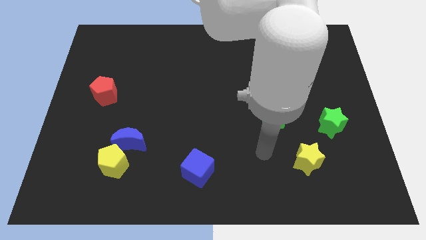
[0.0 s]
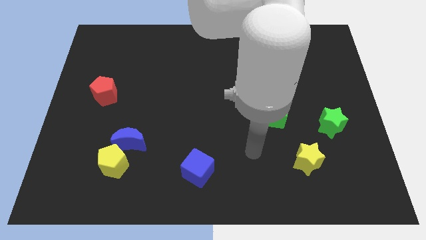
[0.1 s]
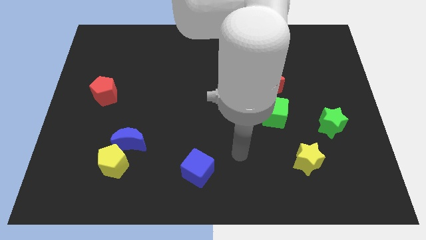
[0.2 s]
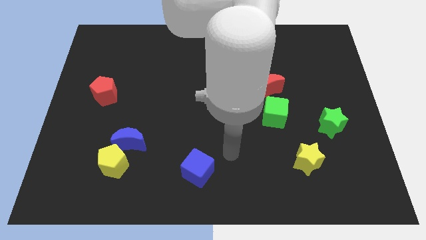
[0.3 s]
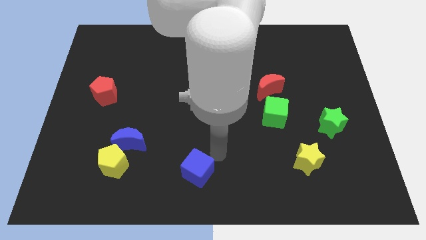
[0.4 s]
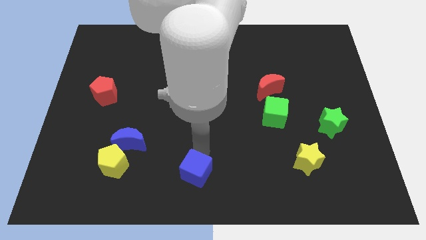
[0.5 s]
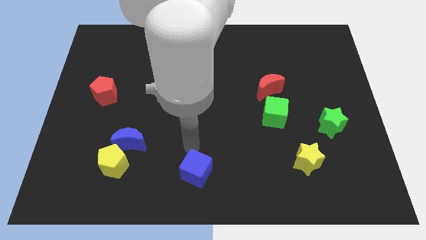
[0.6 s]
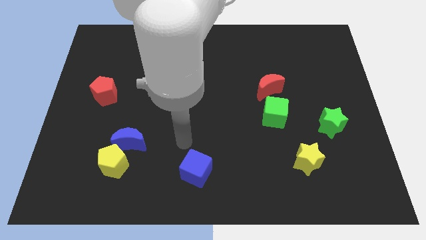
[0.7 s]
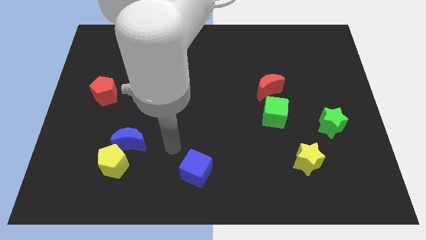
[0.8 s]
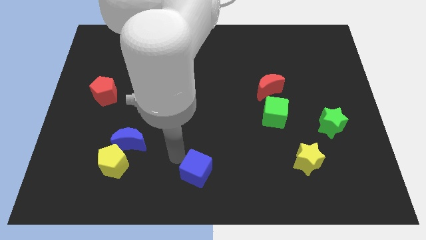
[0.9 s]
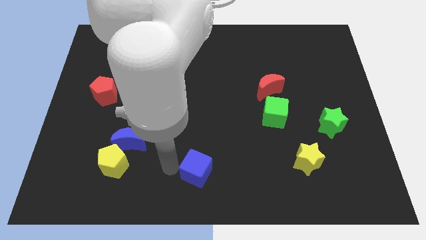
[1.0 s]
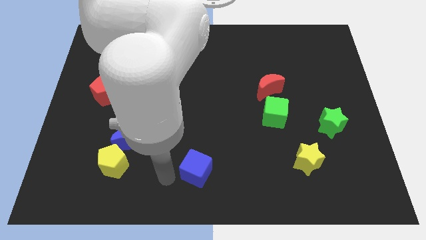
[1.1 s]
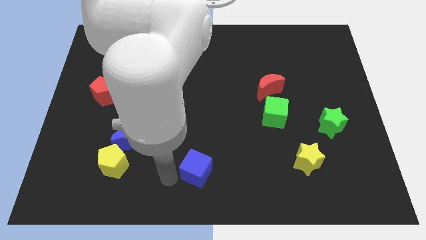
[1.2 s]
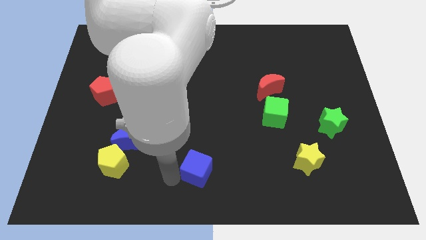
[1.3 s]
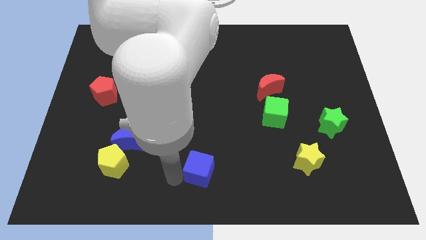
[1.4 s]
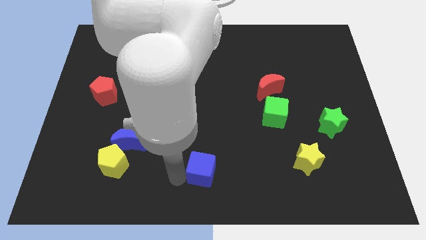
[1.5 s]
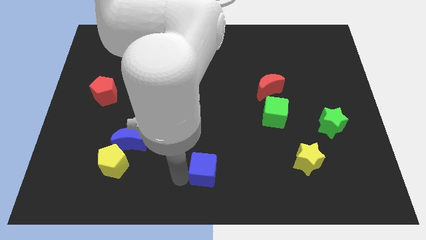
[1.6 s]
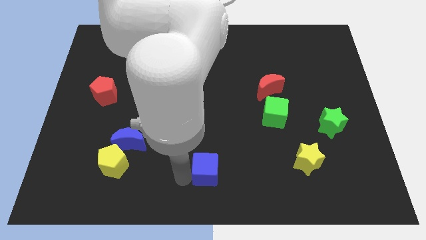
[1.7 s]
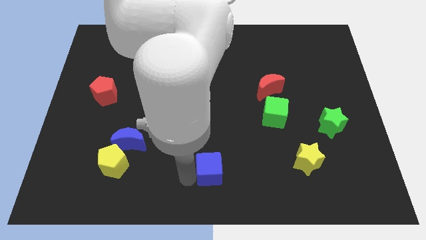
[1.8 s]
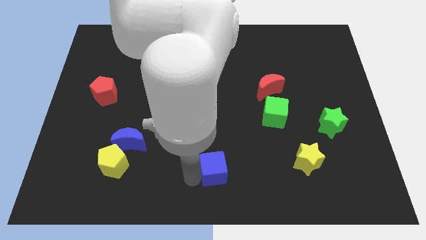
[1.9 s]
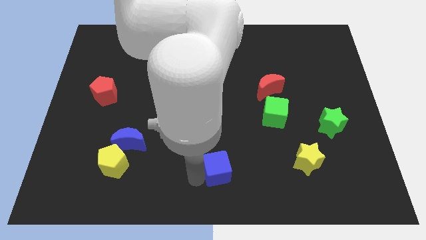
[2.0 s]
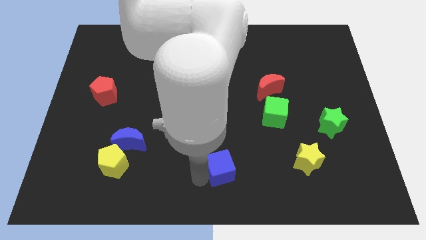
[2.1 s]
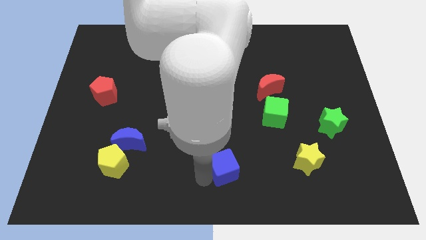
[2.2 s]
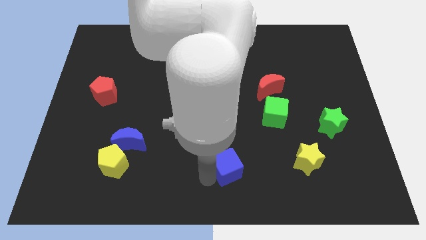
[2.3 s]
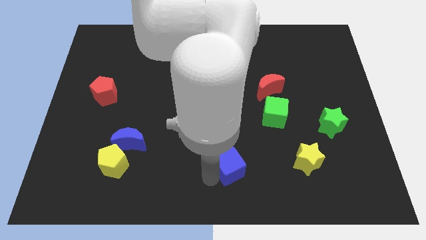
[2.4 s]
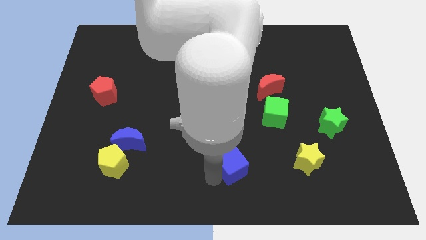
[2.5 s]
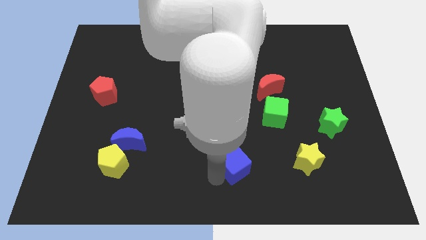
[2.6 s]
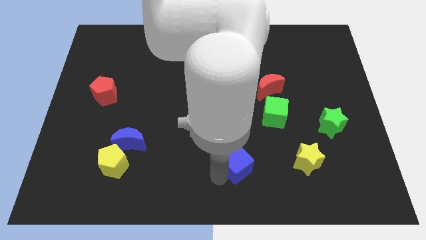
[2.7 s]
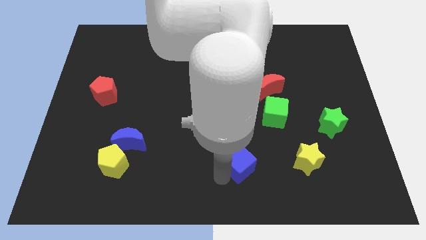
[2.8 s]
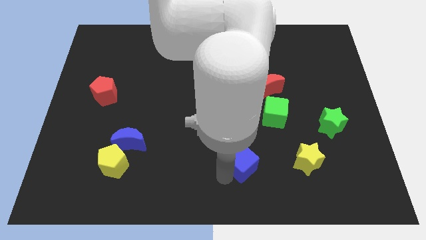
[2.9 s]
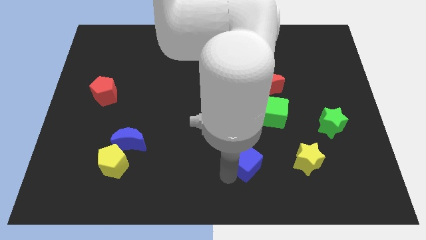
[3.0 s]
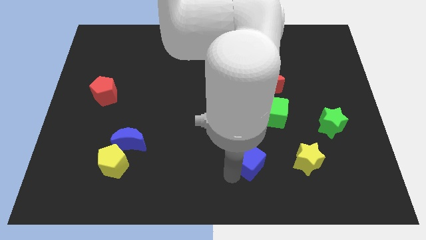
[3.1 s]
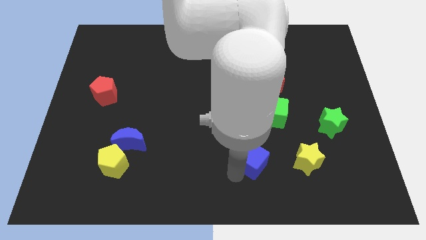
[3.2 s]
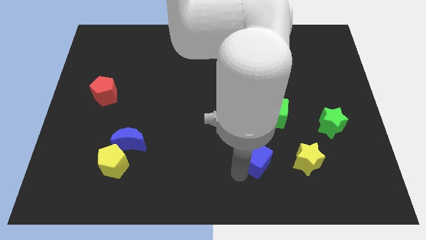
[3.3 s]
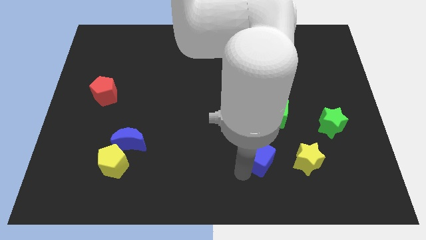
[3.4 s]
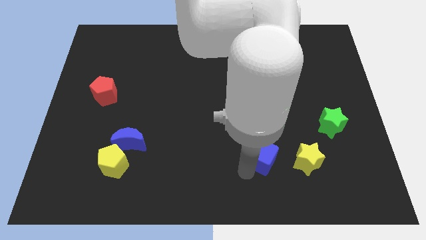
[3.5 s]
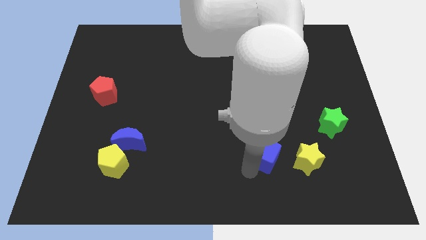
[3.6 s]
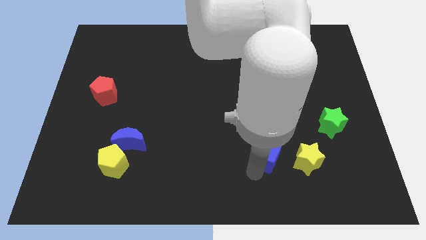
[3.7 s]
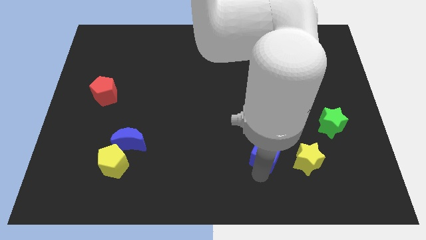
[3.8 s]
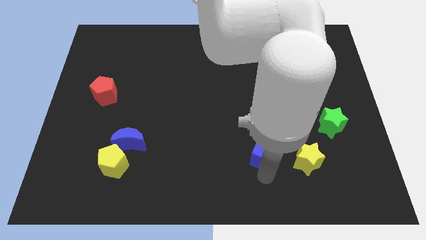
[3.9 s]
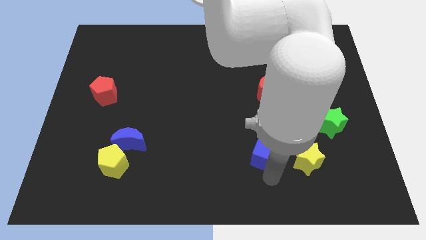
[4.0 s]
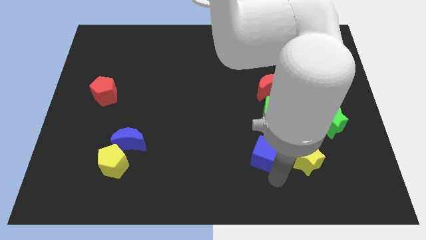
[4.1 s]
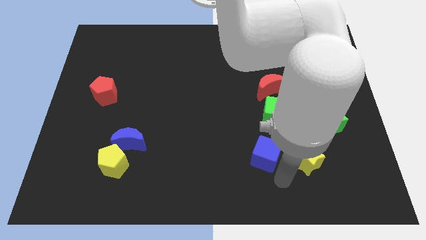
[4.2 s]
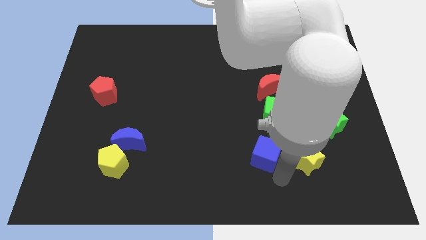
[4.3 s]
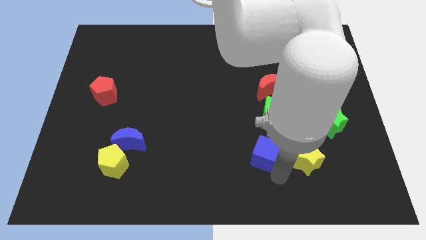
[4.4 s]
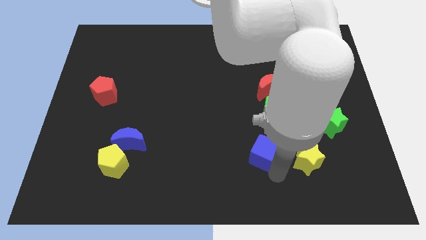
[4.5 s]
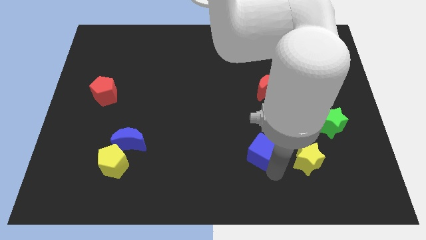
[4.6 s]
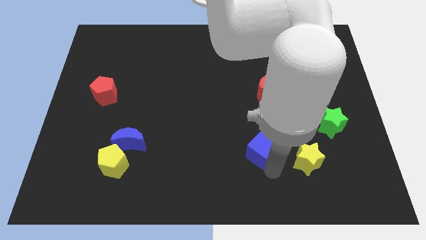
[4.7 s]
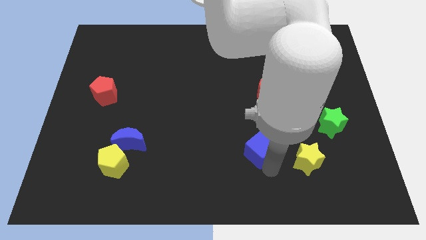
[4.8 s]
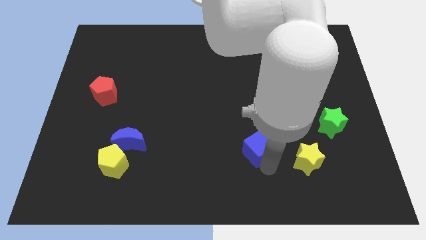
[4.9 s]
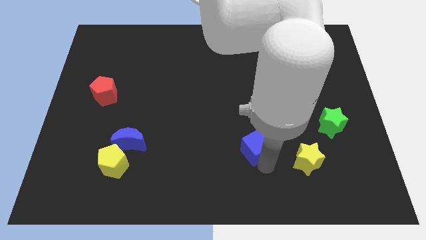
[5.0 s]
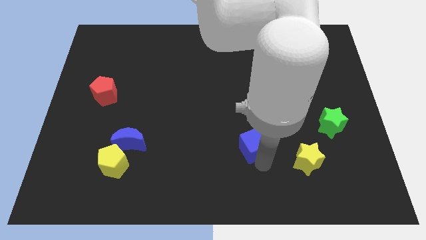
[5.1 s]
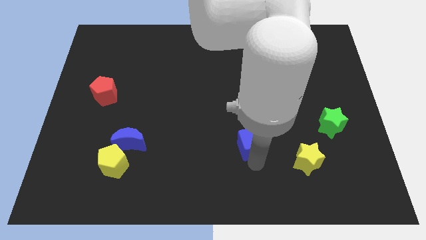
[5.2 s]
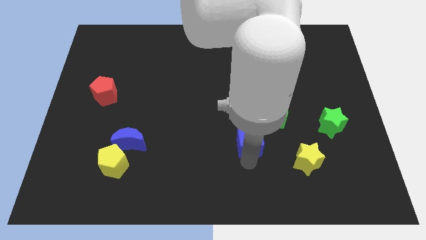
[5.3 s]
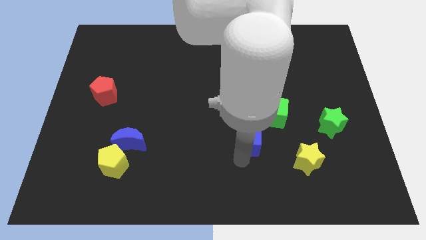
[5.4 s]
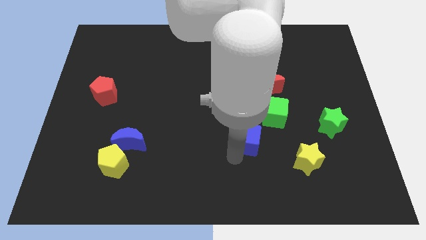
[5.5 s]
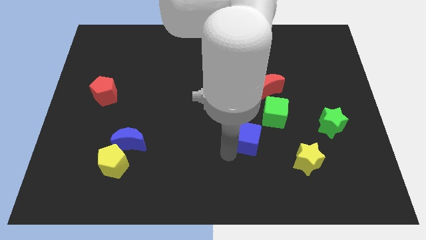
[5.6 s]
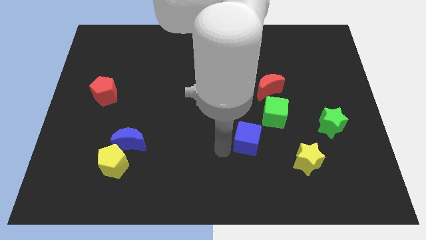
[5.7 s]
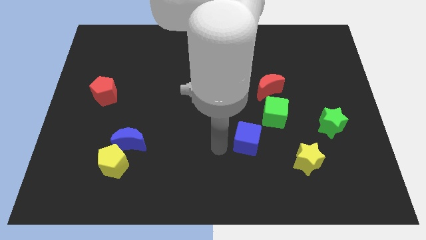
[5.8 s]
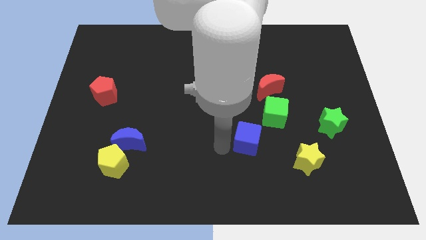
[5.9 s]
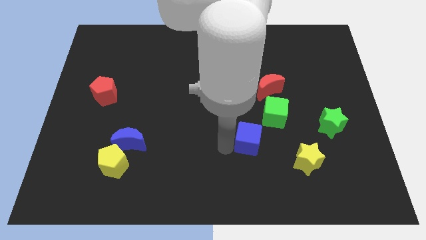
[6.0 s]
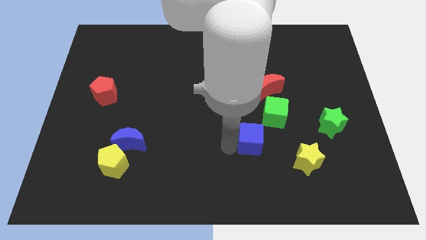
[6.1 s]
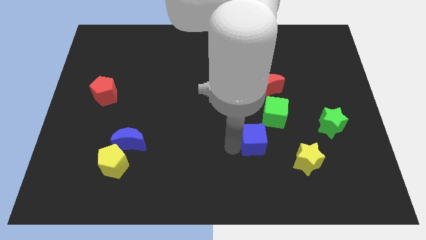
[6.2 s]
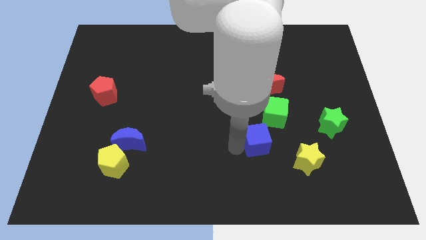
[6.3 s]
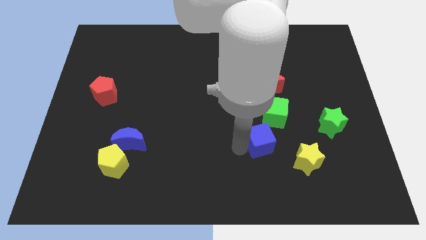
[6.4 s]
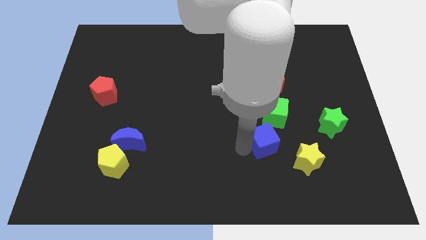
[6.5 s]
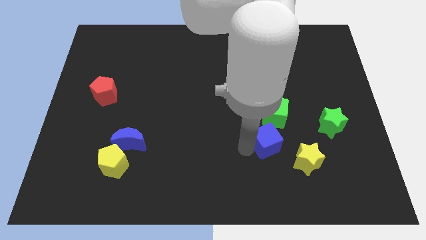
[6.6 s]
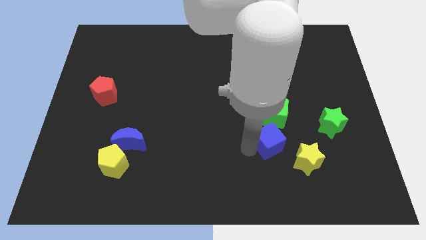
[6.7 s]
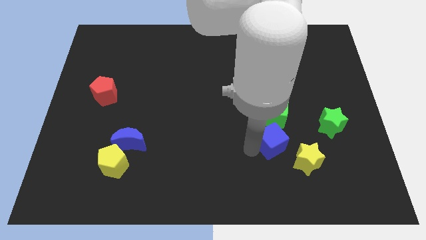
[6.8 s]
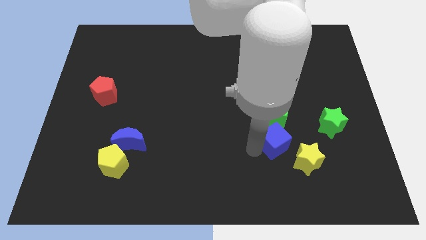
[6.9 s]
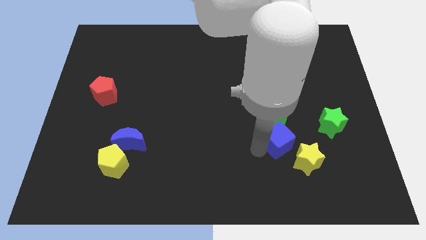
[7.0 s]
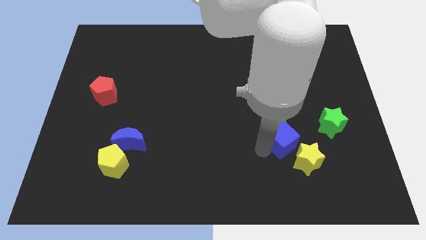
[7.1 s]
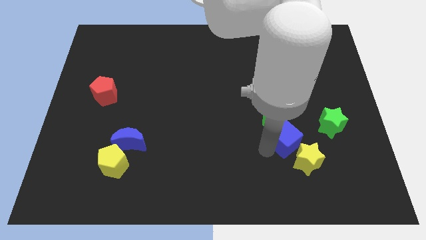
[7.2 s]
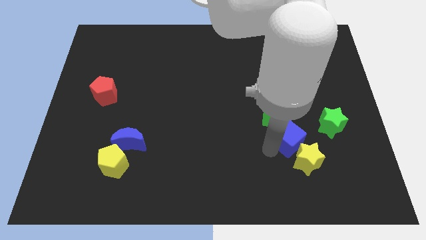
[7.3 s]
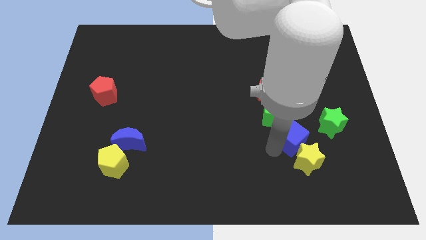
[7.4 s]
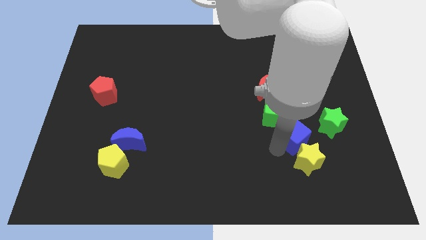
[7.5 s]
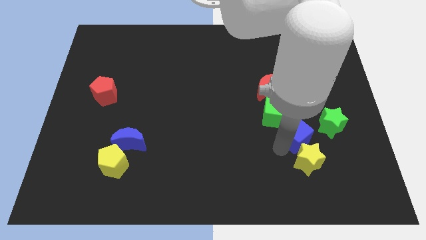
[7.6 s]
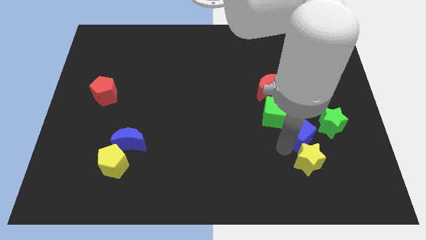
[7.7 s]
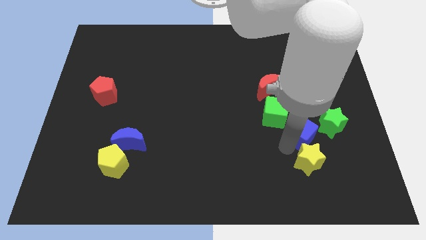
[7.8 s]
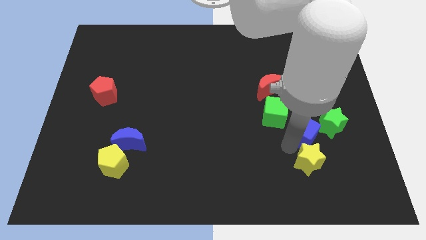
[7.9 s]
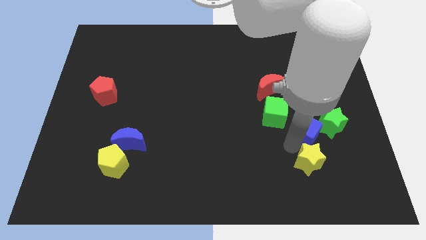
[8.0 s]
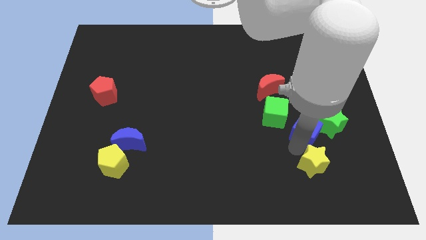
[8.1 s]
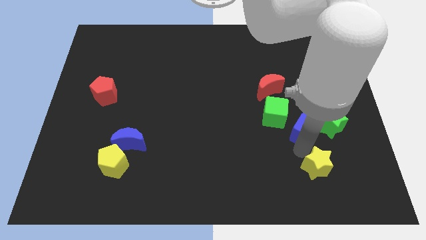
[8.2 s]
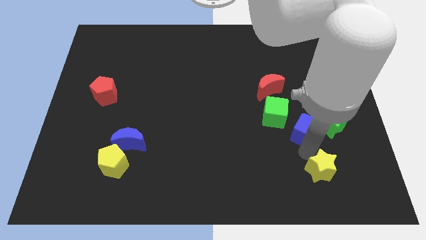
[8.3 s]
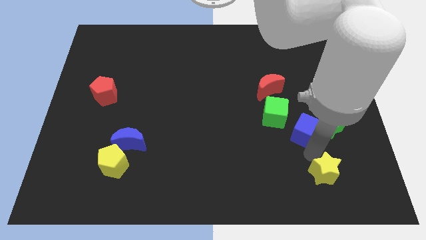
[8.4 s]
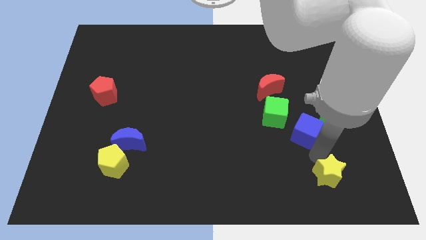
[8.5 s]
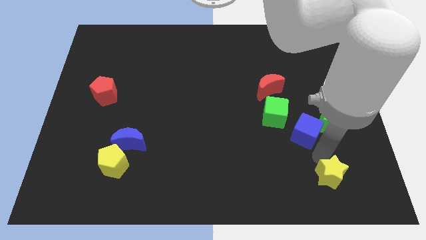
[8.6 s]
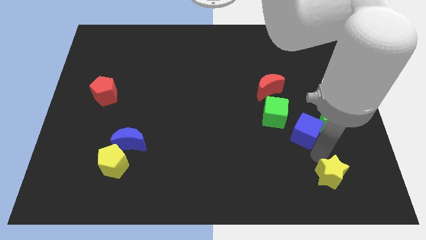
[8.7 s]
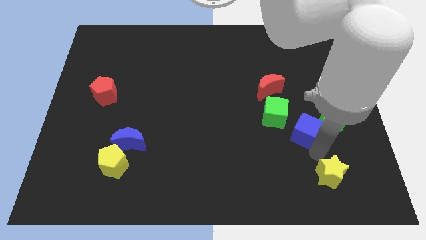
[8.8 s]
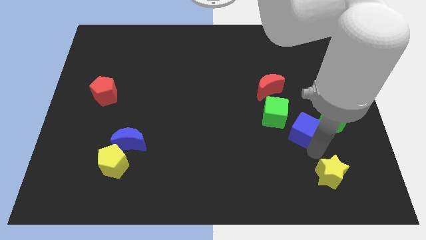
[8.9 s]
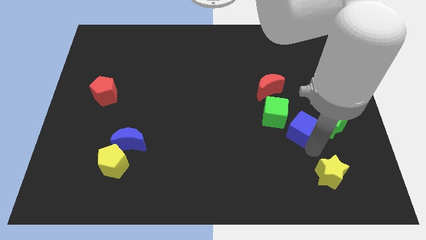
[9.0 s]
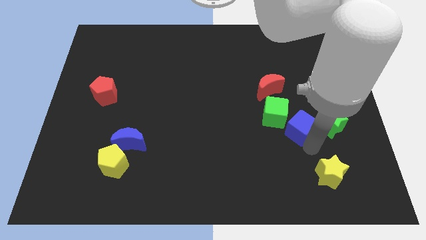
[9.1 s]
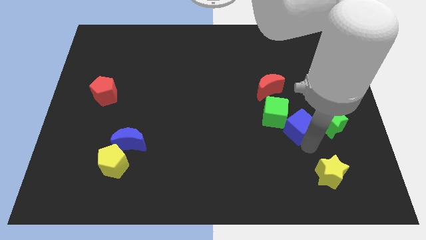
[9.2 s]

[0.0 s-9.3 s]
push the blue cube upwards and then to the right
